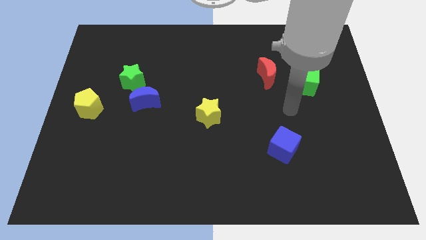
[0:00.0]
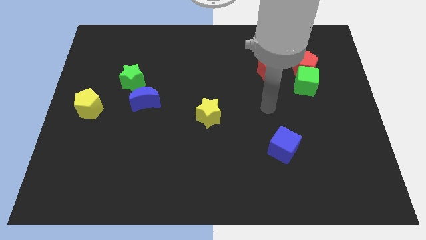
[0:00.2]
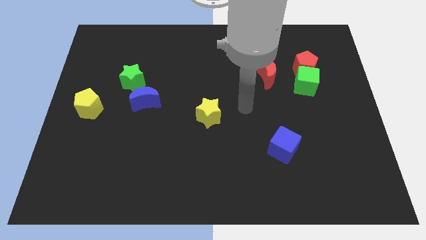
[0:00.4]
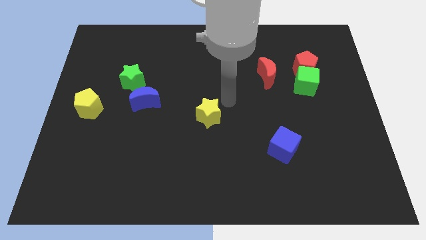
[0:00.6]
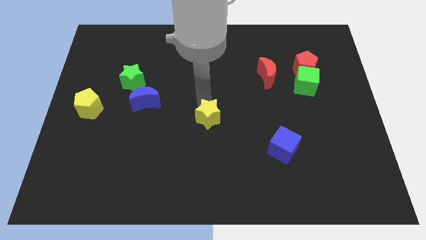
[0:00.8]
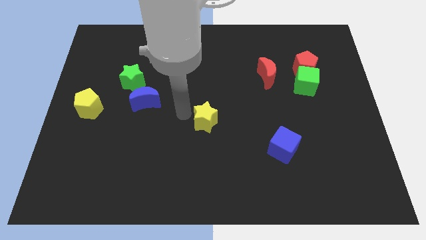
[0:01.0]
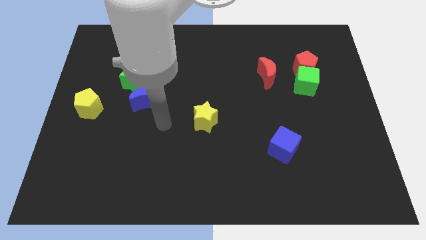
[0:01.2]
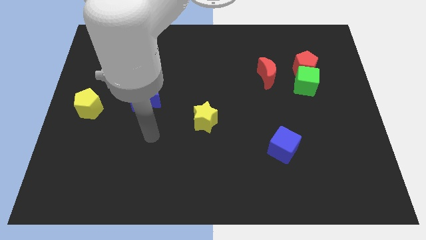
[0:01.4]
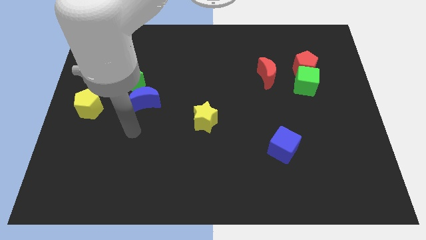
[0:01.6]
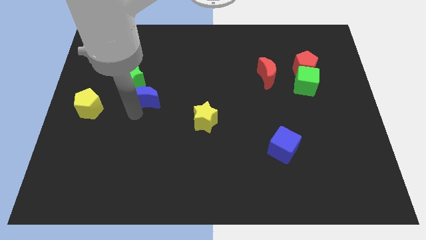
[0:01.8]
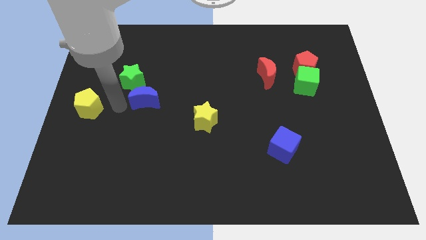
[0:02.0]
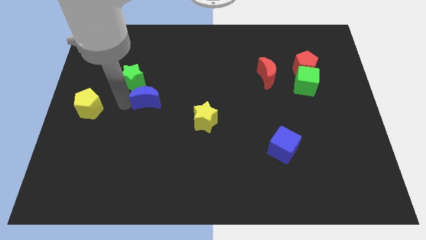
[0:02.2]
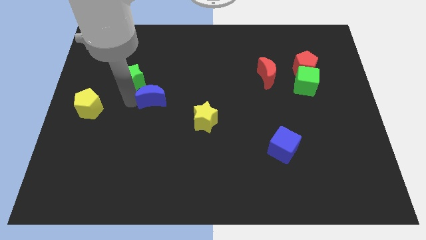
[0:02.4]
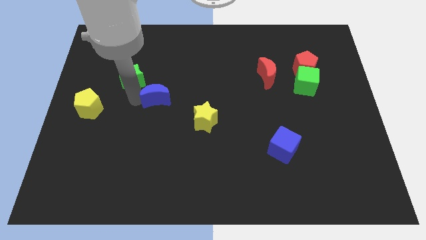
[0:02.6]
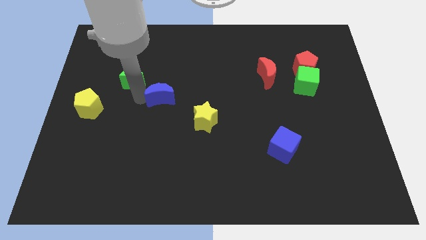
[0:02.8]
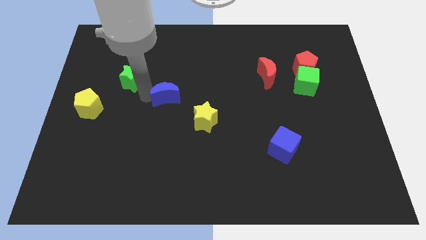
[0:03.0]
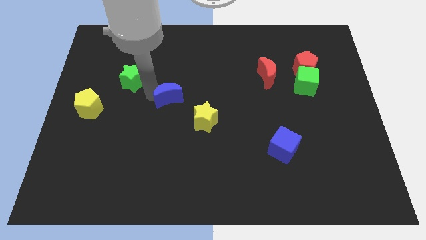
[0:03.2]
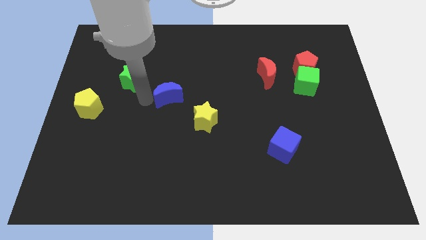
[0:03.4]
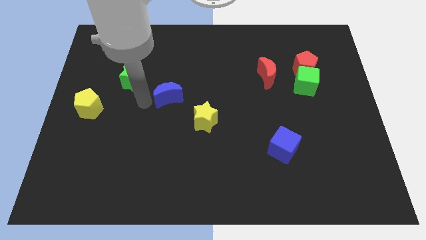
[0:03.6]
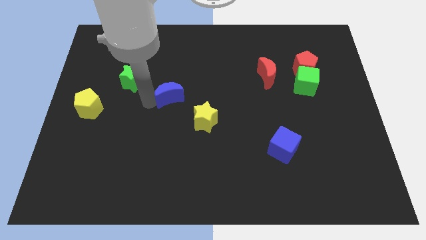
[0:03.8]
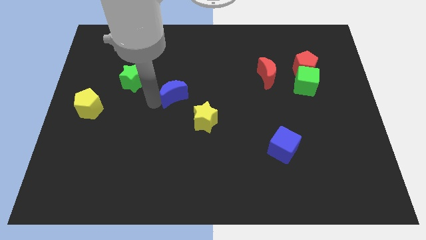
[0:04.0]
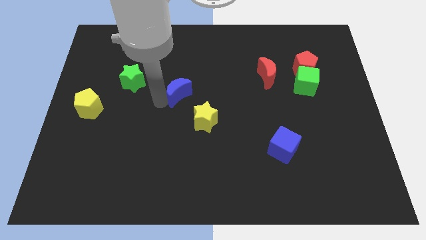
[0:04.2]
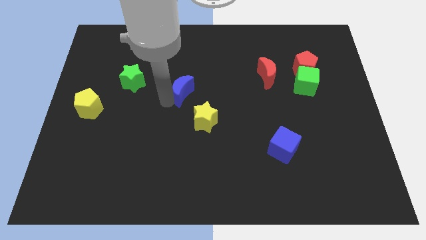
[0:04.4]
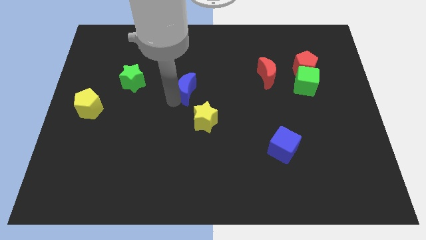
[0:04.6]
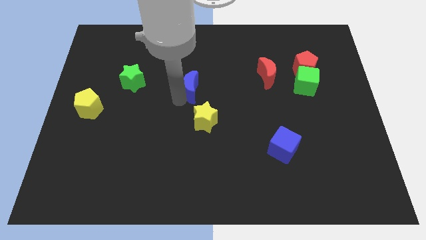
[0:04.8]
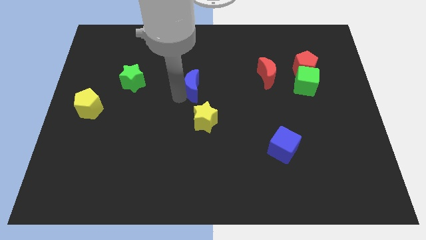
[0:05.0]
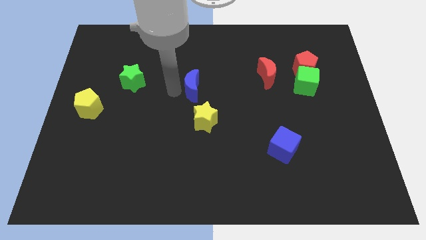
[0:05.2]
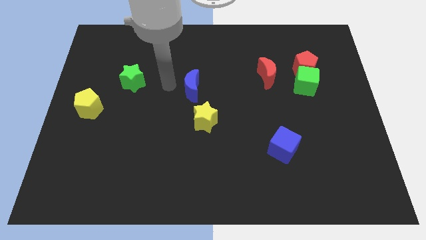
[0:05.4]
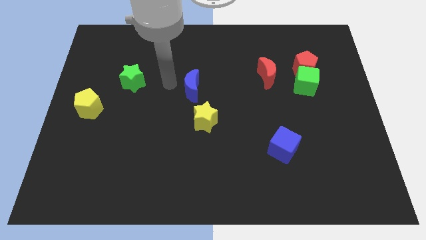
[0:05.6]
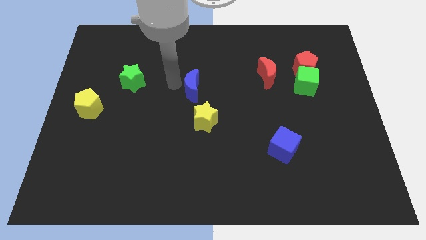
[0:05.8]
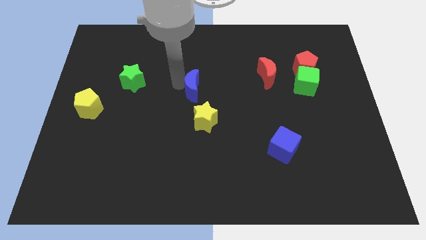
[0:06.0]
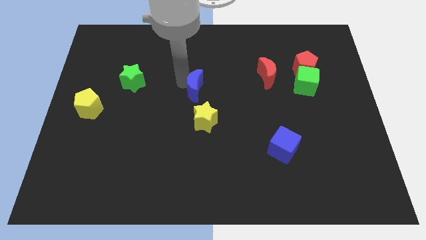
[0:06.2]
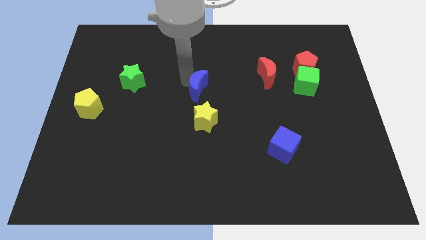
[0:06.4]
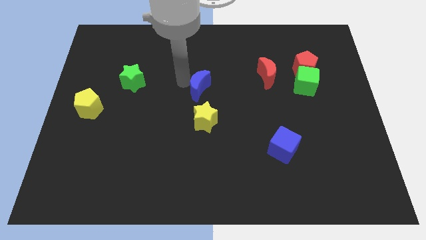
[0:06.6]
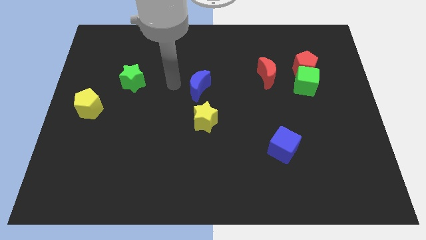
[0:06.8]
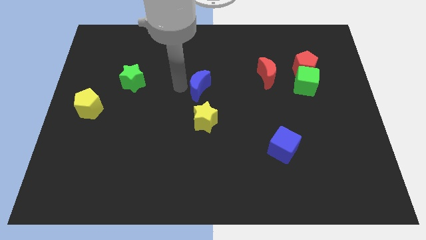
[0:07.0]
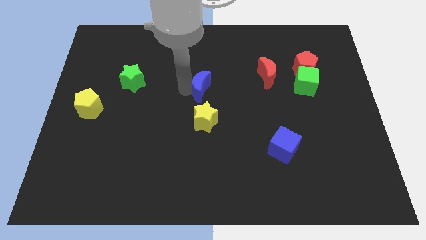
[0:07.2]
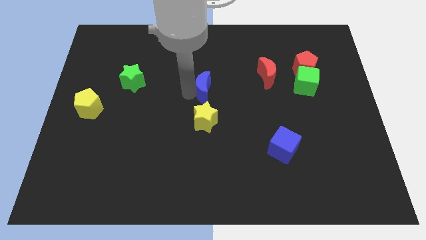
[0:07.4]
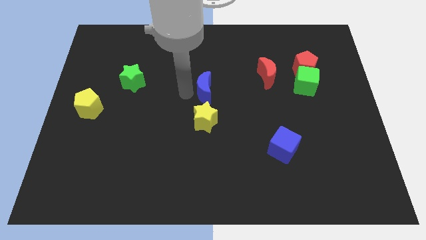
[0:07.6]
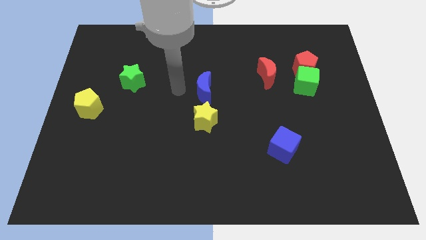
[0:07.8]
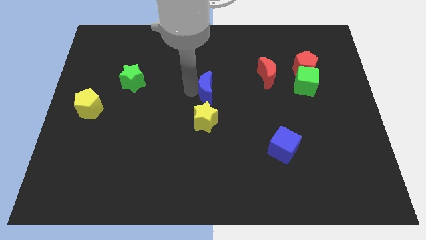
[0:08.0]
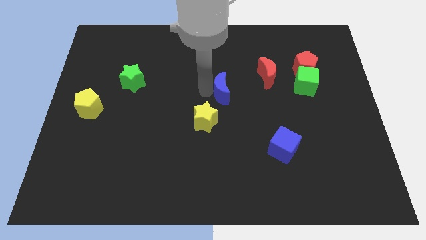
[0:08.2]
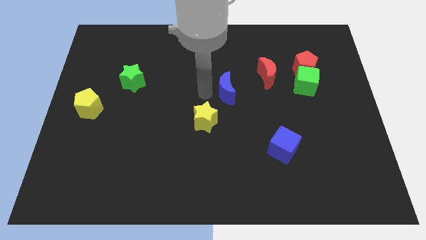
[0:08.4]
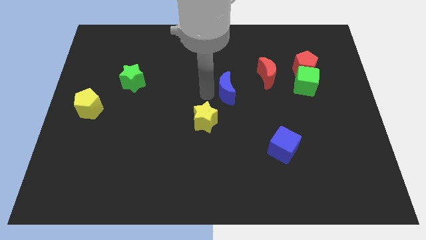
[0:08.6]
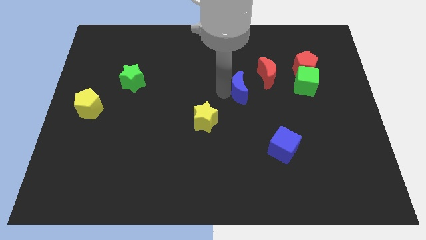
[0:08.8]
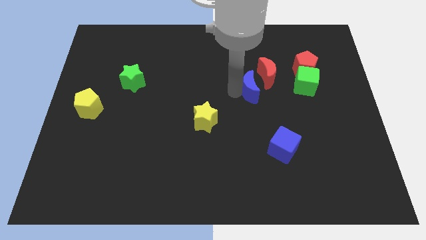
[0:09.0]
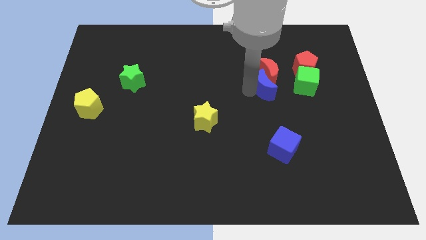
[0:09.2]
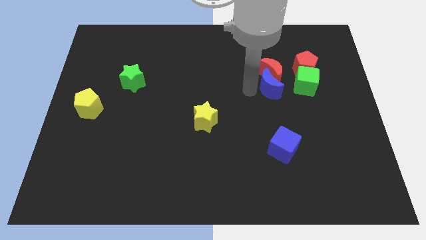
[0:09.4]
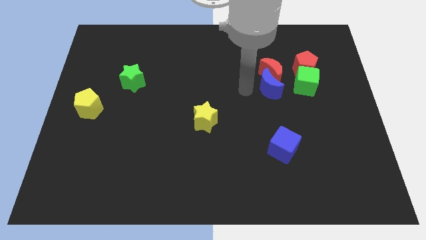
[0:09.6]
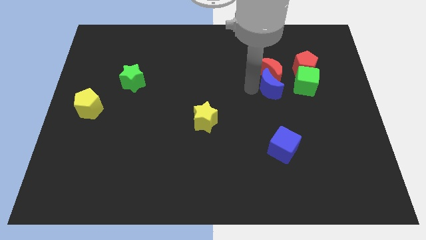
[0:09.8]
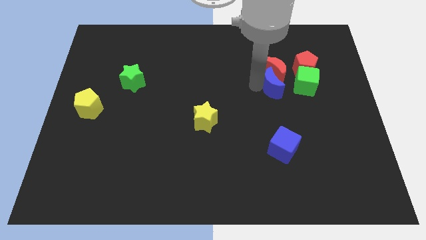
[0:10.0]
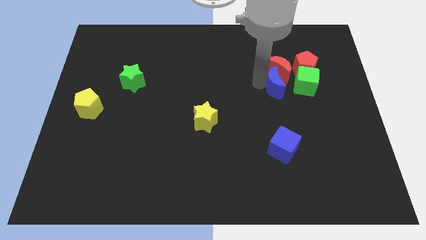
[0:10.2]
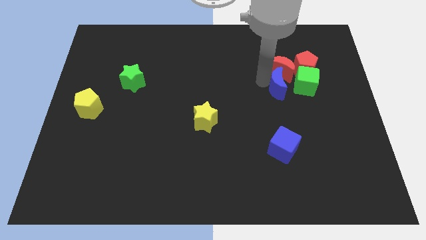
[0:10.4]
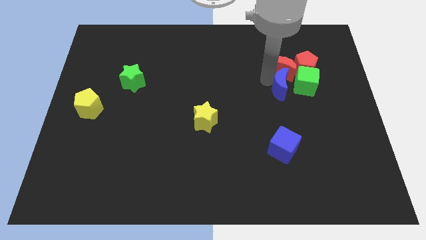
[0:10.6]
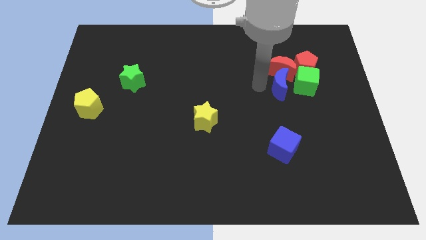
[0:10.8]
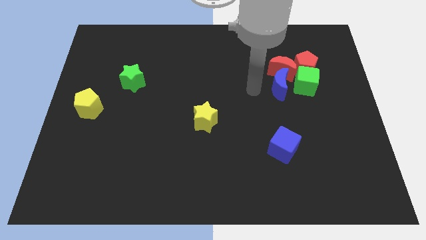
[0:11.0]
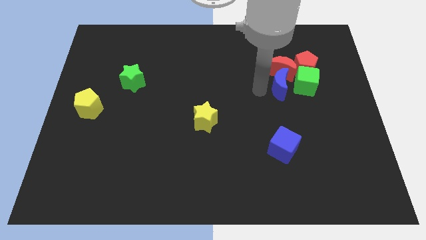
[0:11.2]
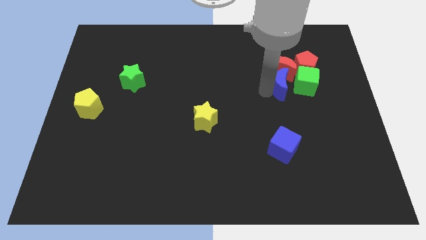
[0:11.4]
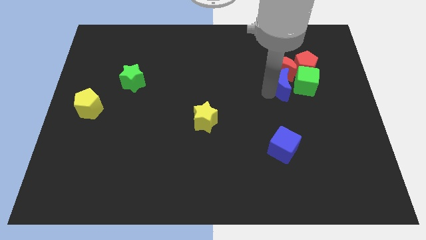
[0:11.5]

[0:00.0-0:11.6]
push the blue moon towards the green cube
